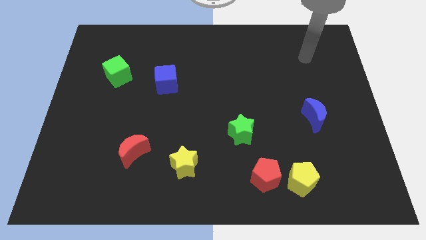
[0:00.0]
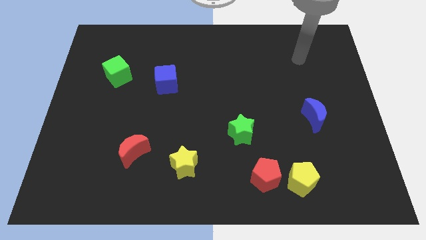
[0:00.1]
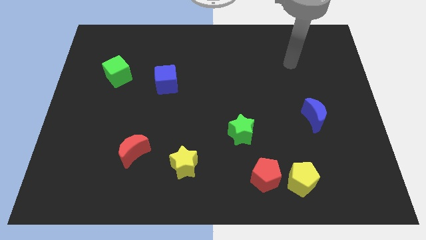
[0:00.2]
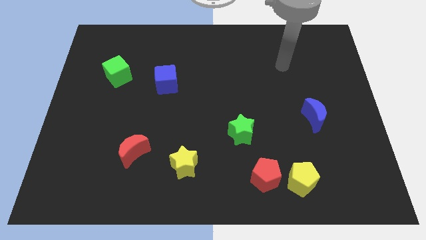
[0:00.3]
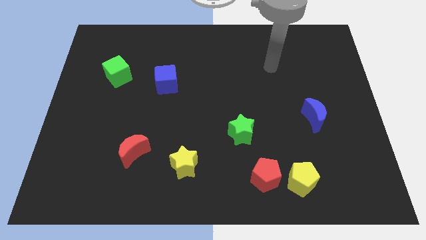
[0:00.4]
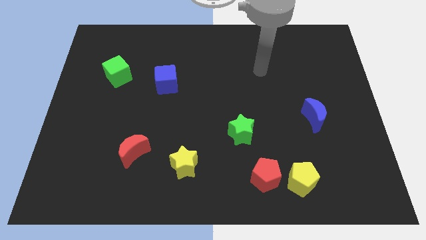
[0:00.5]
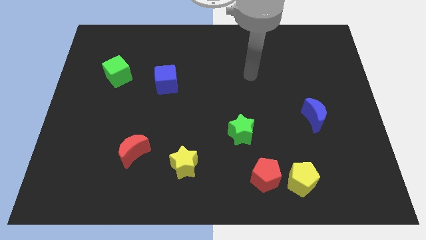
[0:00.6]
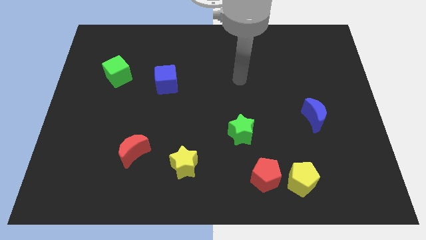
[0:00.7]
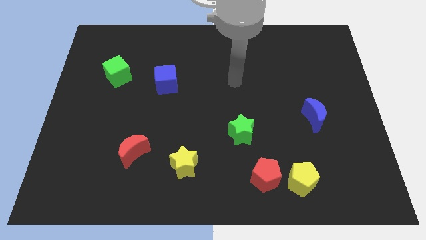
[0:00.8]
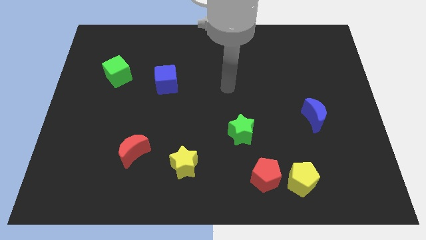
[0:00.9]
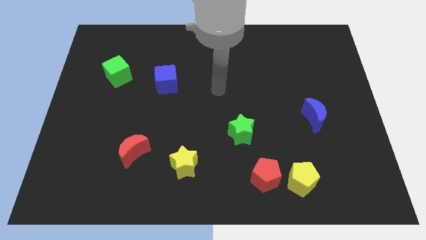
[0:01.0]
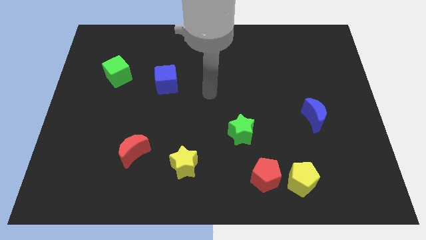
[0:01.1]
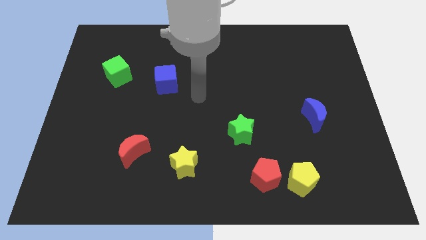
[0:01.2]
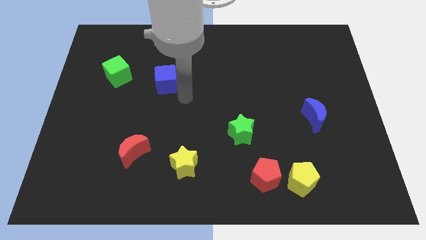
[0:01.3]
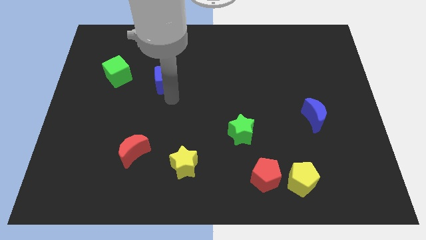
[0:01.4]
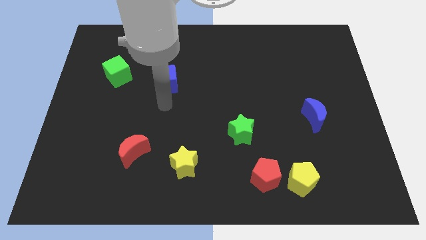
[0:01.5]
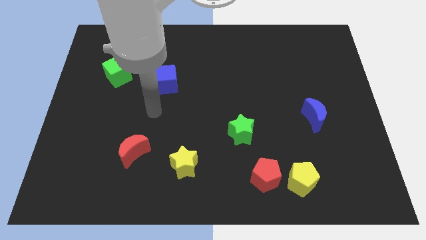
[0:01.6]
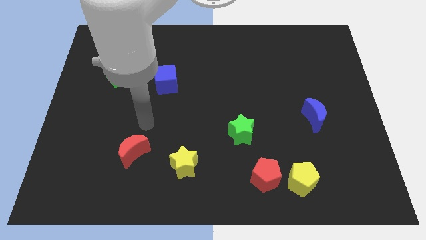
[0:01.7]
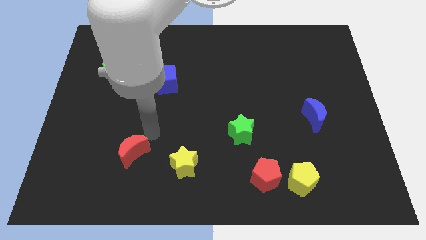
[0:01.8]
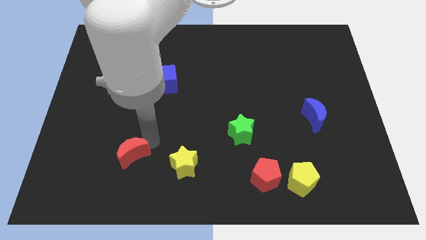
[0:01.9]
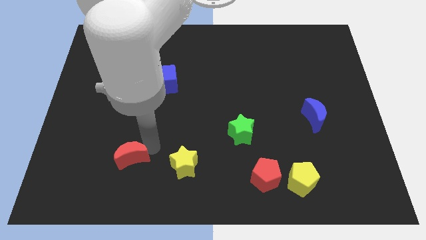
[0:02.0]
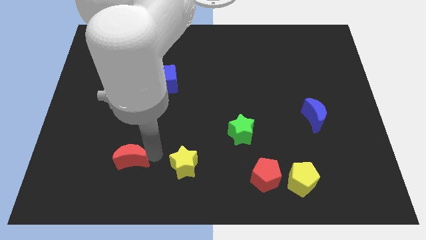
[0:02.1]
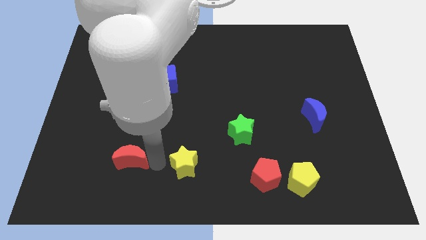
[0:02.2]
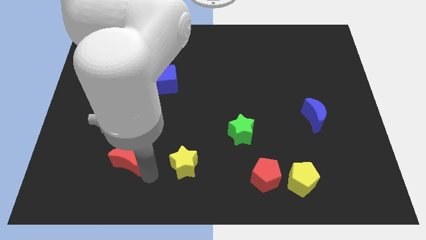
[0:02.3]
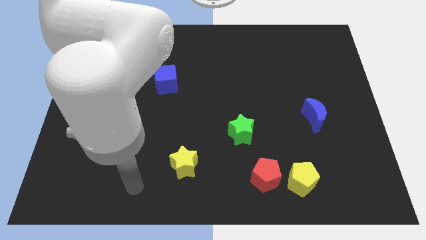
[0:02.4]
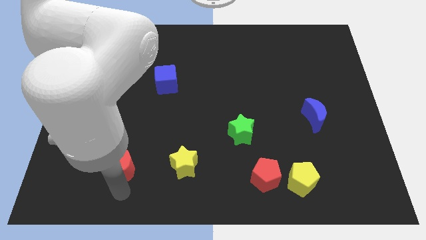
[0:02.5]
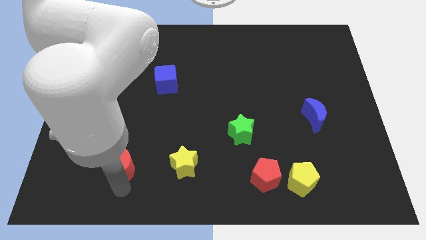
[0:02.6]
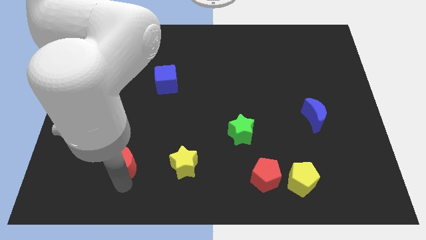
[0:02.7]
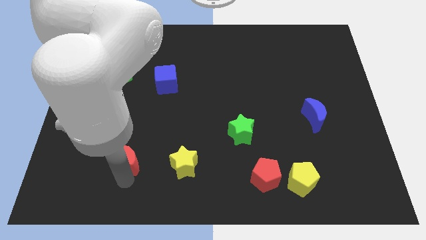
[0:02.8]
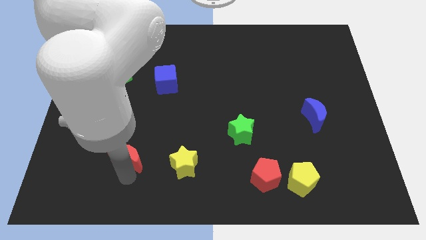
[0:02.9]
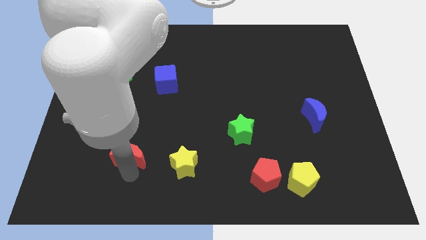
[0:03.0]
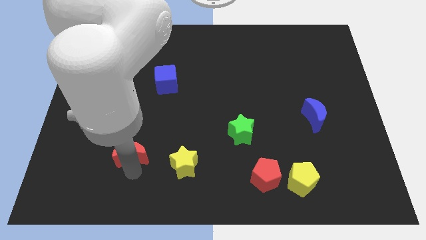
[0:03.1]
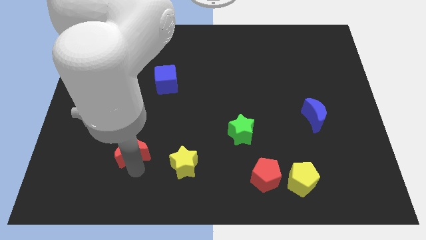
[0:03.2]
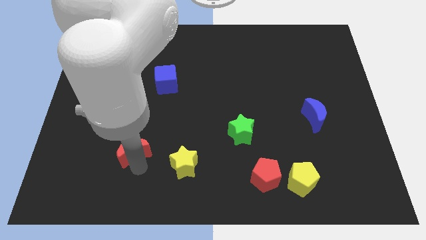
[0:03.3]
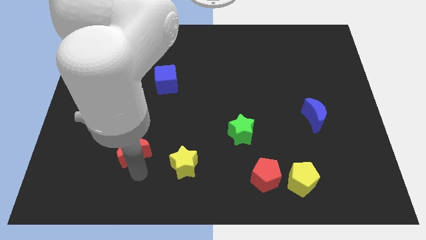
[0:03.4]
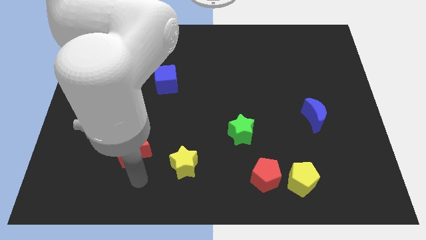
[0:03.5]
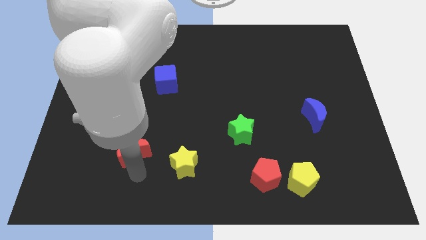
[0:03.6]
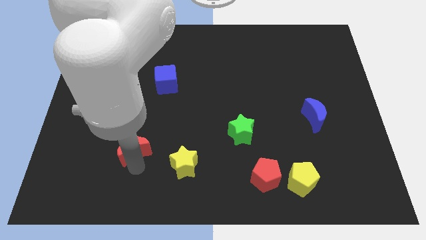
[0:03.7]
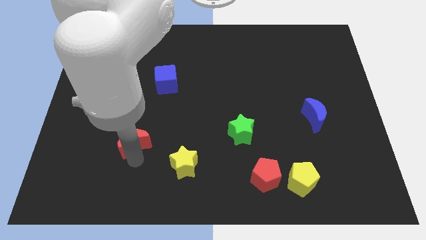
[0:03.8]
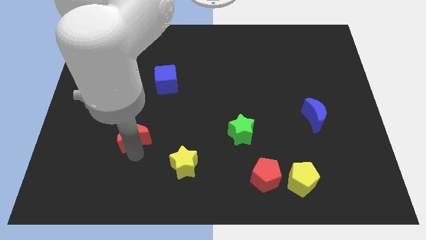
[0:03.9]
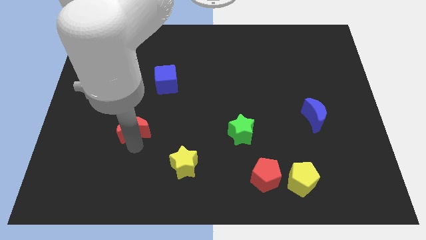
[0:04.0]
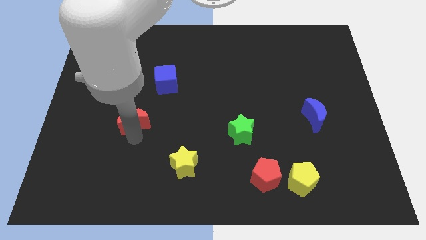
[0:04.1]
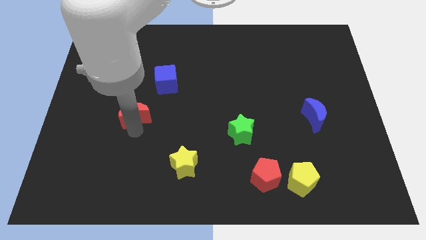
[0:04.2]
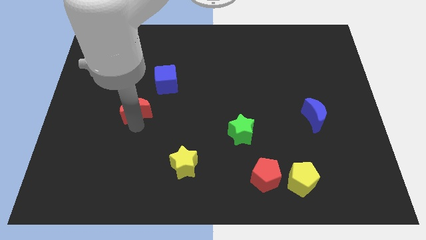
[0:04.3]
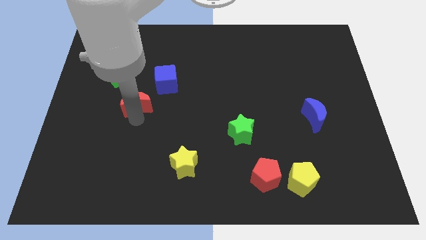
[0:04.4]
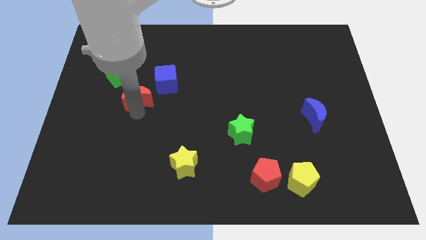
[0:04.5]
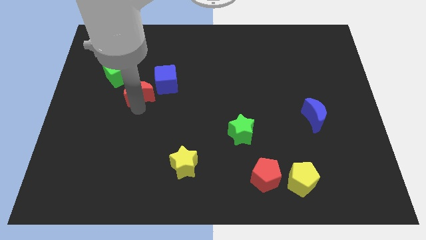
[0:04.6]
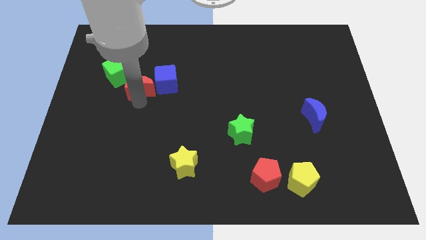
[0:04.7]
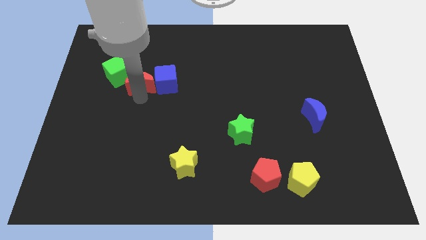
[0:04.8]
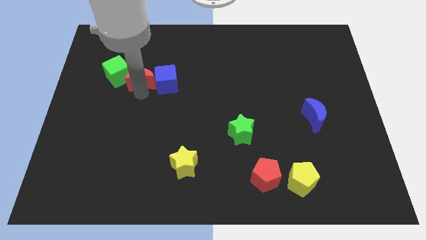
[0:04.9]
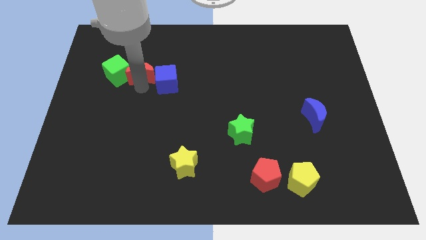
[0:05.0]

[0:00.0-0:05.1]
put the red moon diagonally up and to the right of the green cube

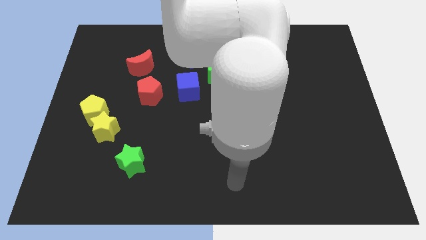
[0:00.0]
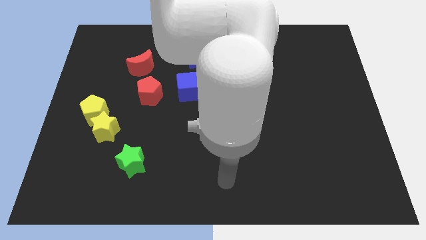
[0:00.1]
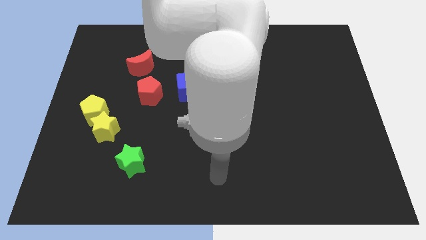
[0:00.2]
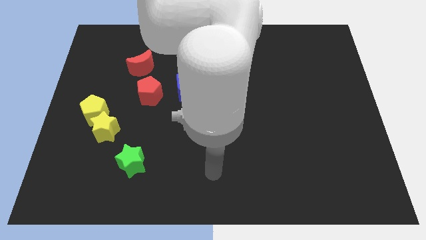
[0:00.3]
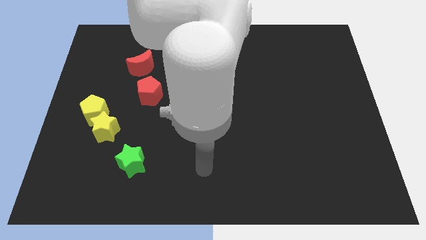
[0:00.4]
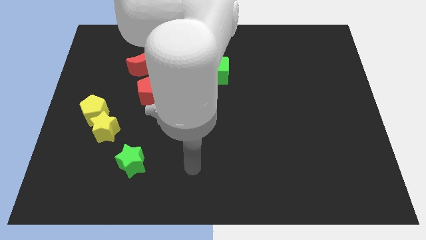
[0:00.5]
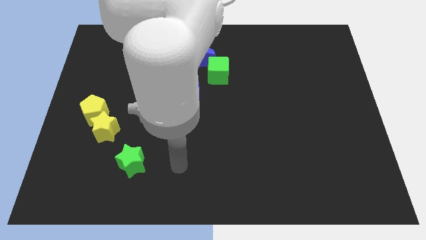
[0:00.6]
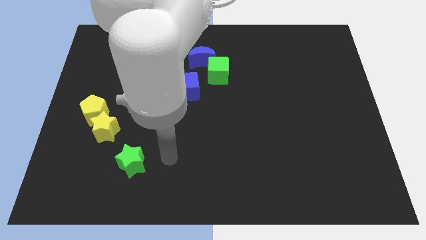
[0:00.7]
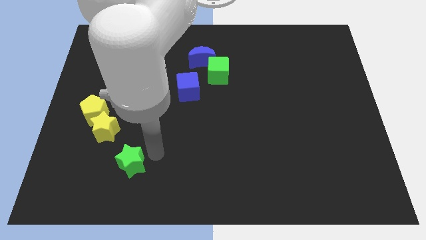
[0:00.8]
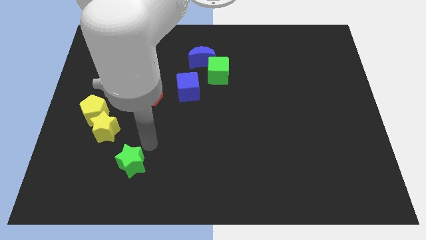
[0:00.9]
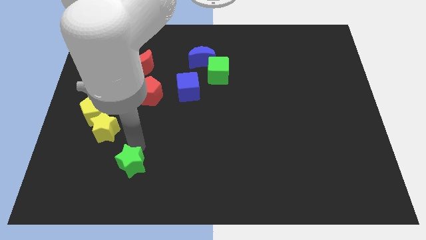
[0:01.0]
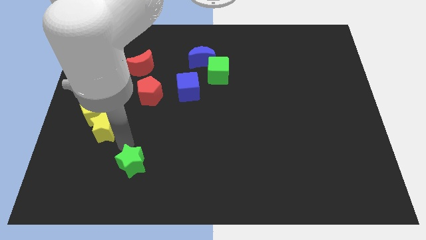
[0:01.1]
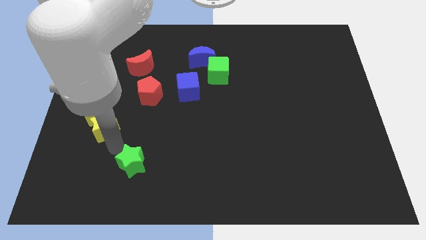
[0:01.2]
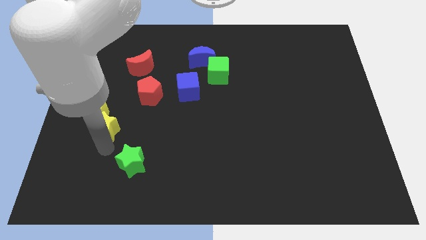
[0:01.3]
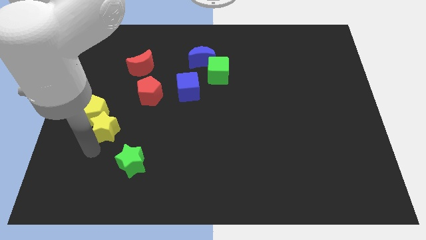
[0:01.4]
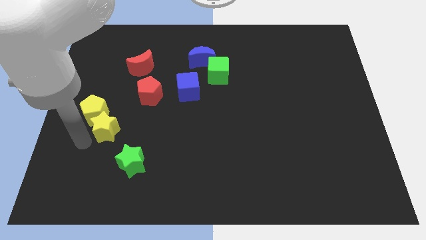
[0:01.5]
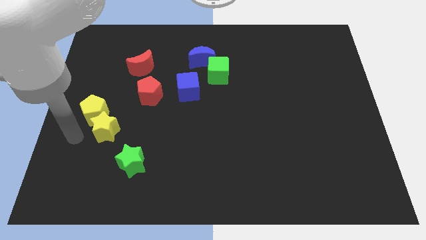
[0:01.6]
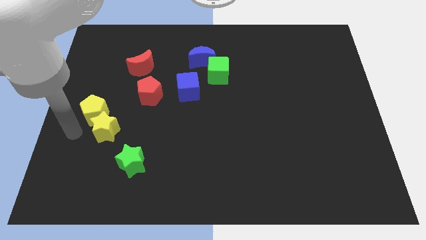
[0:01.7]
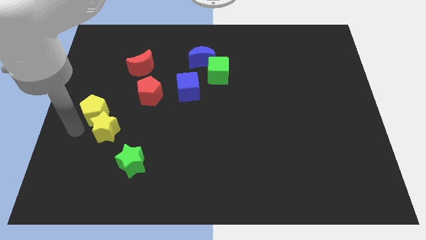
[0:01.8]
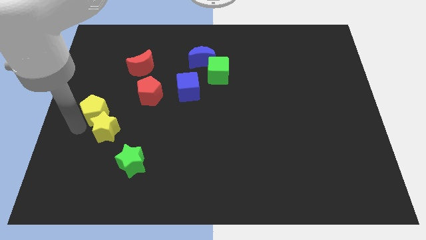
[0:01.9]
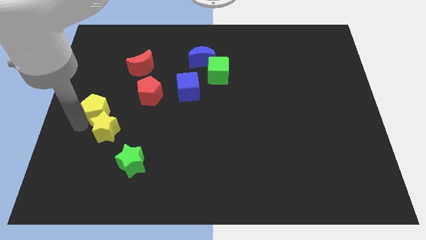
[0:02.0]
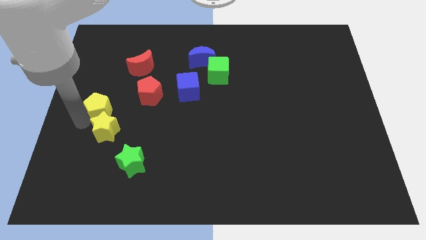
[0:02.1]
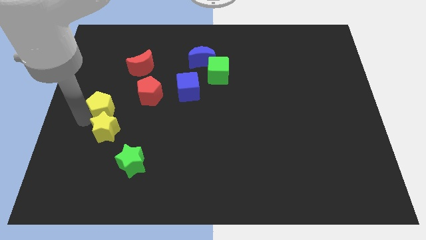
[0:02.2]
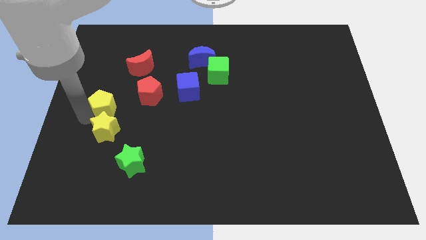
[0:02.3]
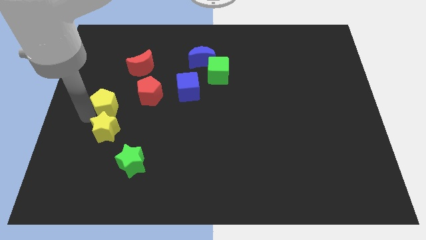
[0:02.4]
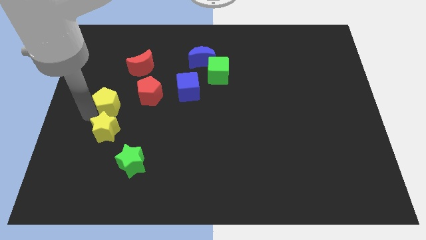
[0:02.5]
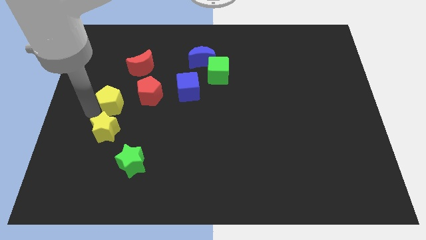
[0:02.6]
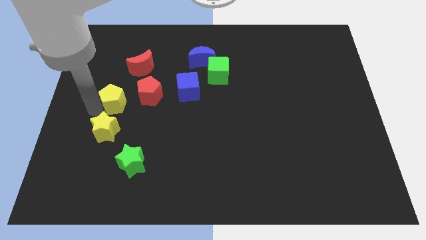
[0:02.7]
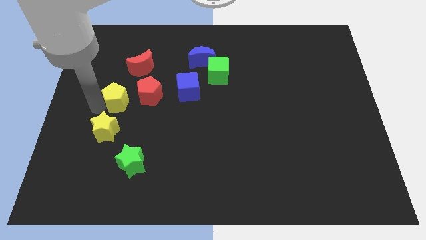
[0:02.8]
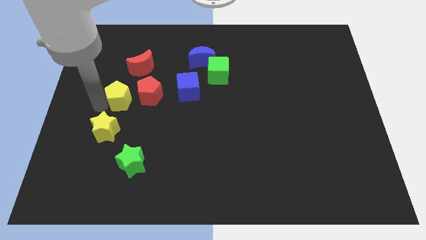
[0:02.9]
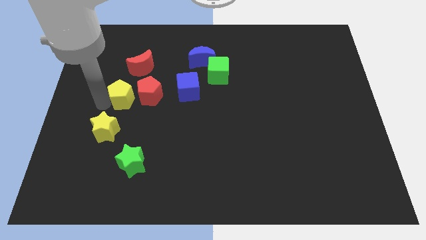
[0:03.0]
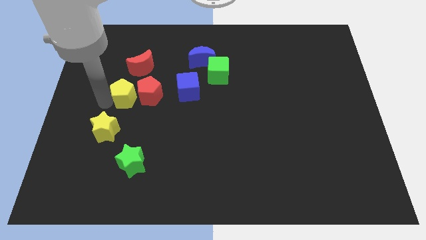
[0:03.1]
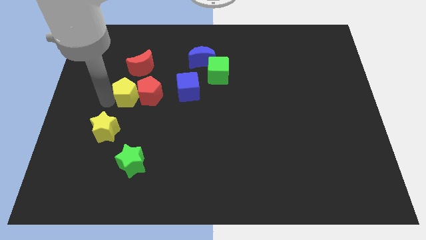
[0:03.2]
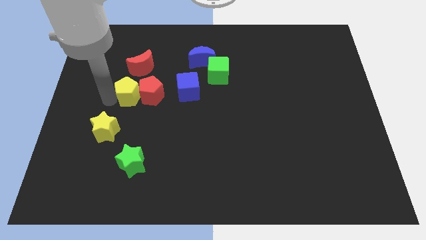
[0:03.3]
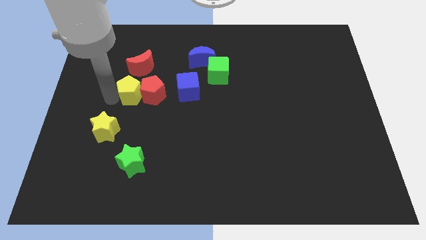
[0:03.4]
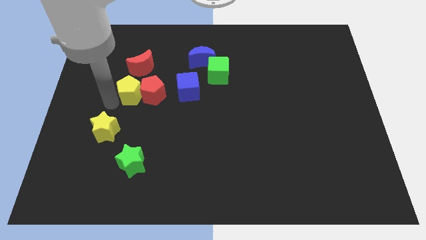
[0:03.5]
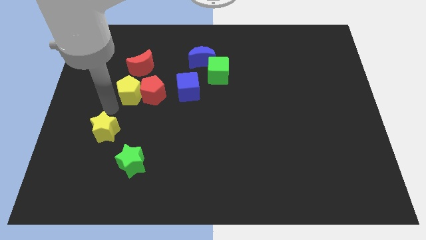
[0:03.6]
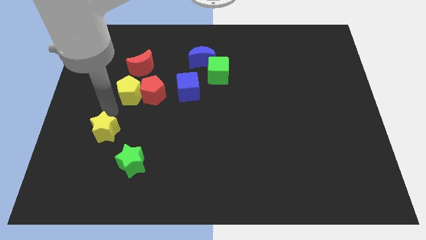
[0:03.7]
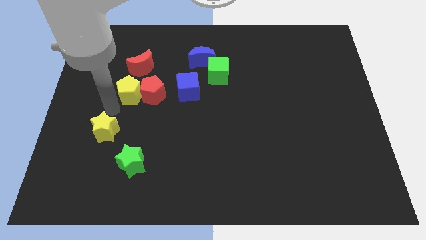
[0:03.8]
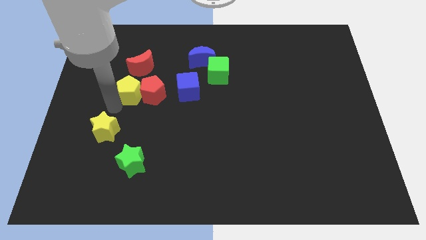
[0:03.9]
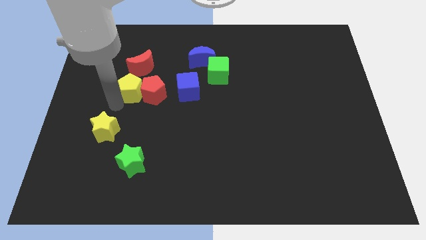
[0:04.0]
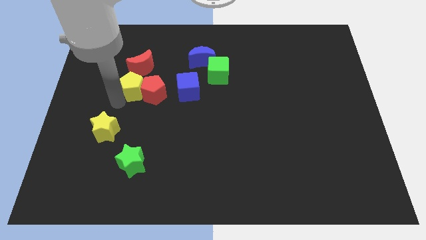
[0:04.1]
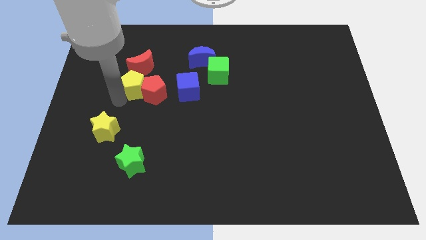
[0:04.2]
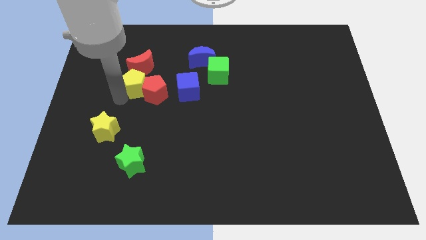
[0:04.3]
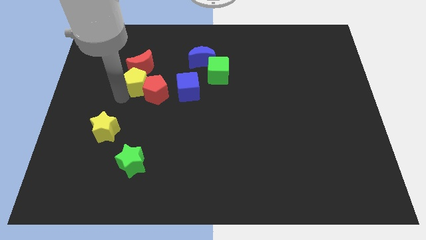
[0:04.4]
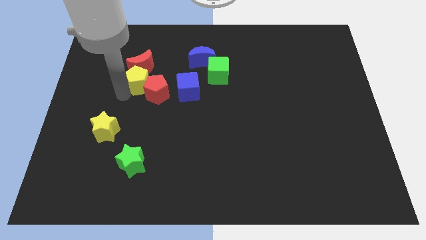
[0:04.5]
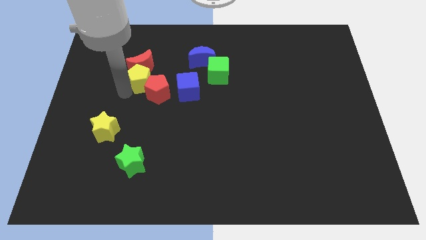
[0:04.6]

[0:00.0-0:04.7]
put the yellow pentagon above the red pentagon
